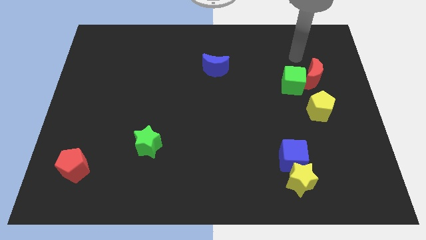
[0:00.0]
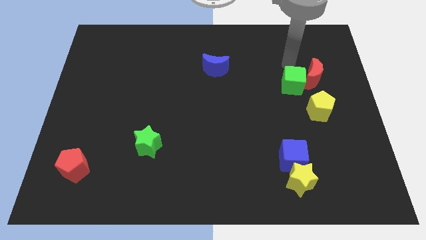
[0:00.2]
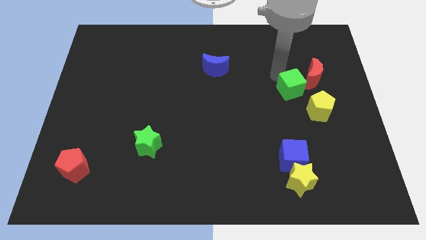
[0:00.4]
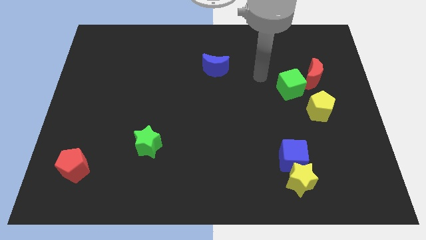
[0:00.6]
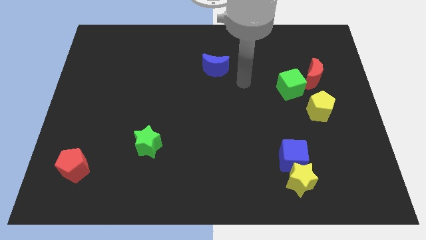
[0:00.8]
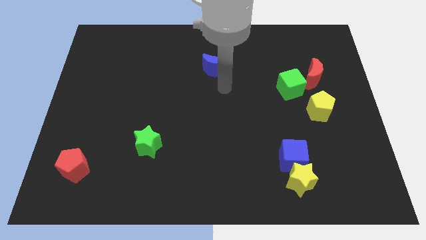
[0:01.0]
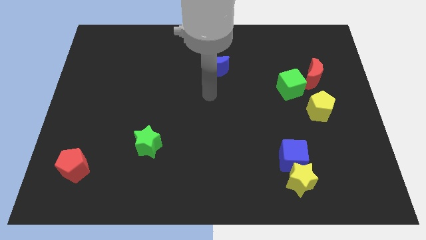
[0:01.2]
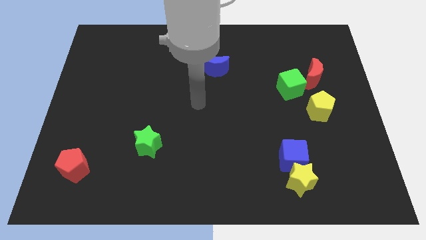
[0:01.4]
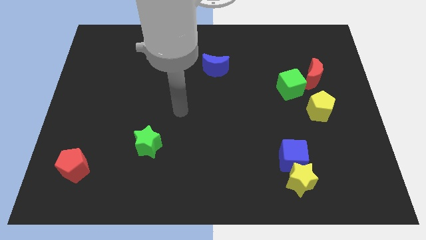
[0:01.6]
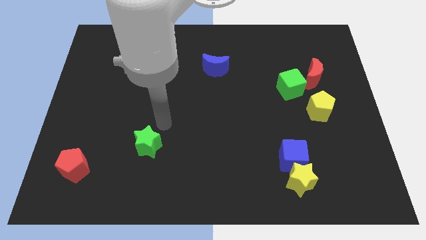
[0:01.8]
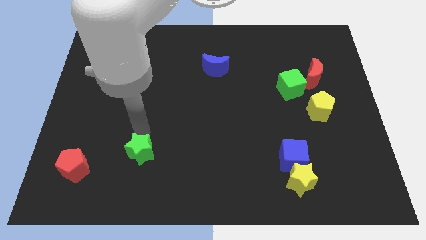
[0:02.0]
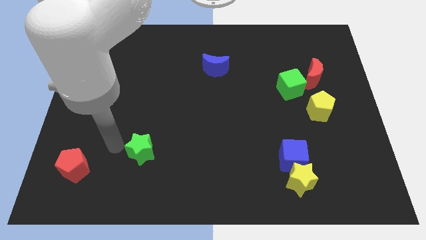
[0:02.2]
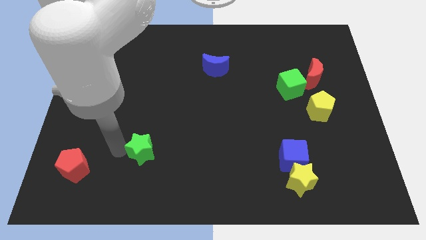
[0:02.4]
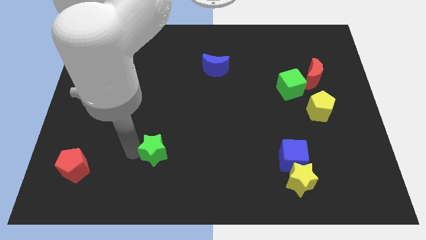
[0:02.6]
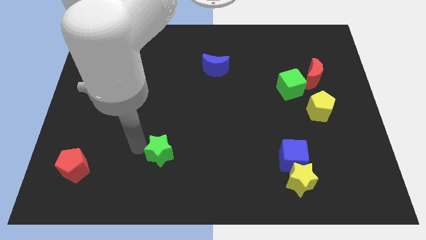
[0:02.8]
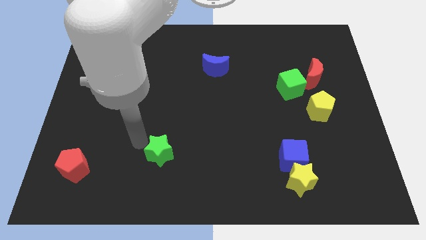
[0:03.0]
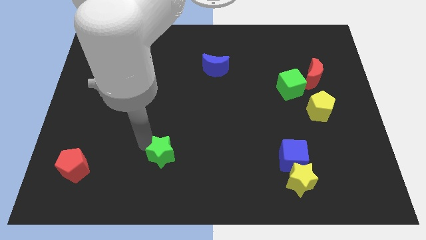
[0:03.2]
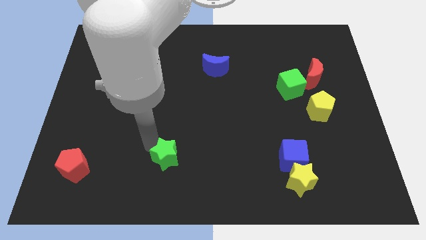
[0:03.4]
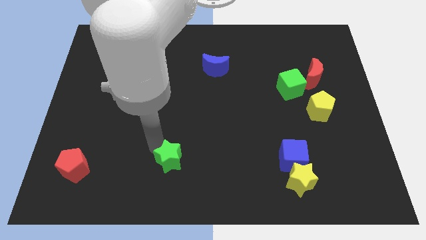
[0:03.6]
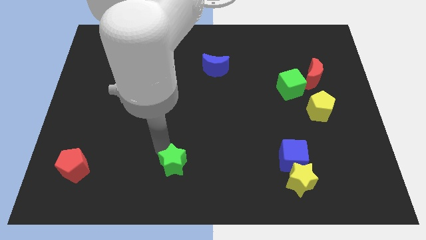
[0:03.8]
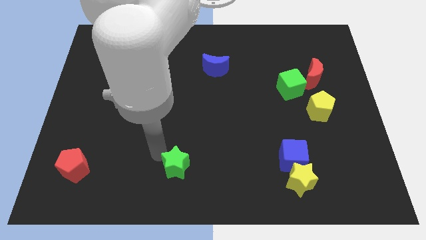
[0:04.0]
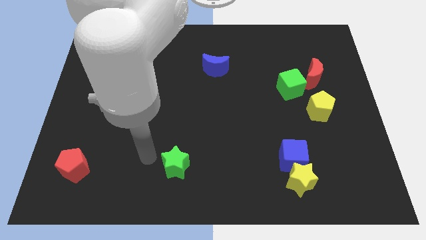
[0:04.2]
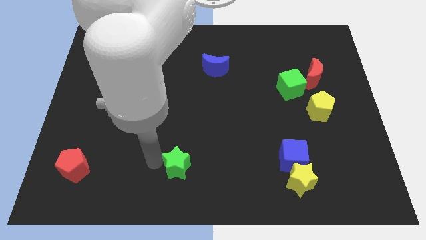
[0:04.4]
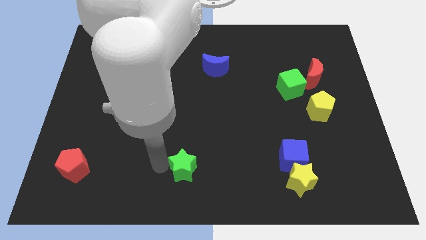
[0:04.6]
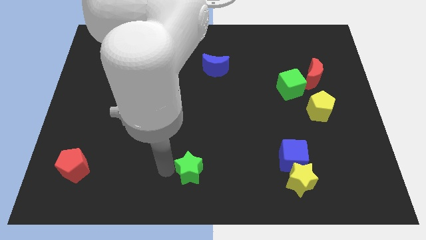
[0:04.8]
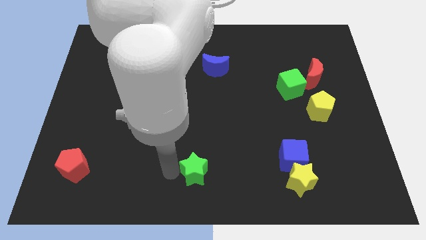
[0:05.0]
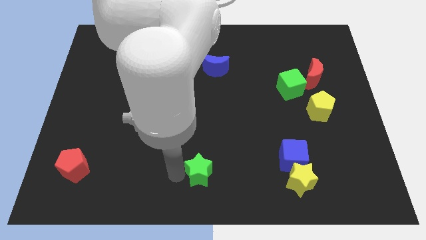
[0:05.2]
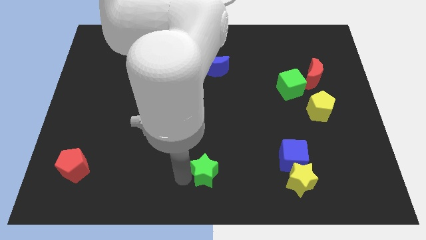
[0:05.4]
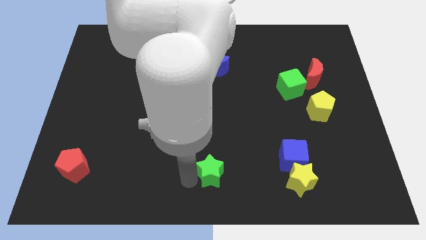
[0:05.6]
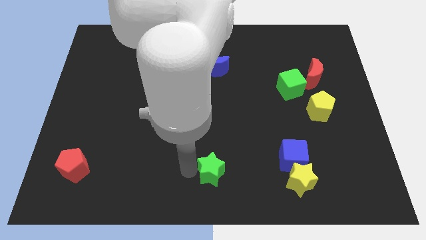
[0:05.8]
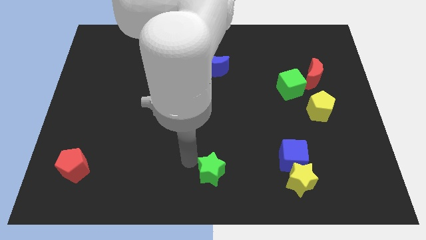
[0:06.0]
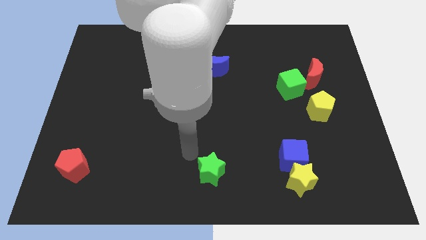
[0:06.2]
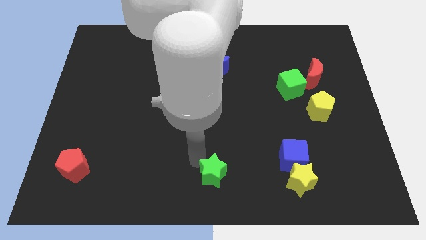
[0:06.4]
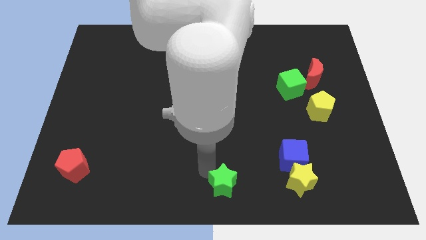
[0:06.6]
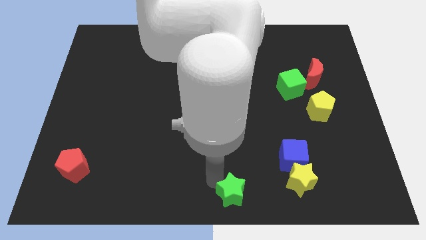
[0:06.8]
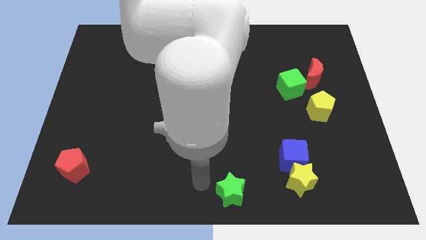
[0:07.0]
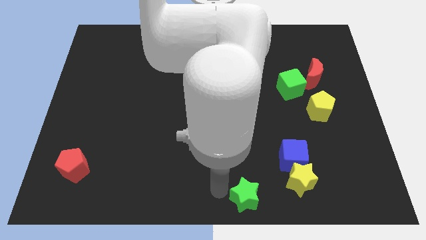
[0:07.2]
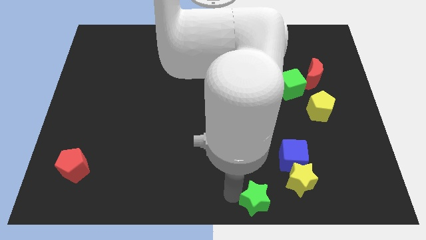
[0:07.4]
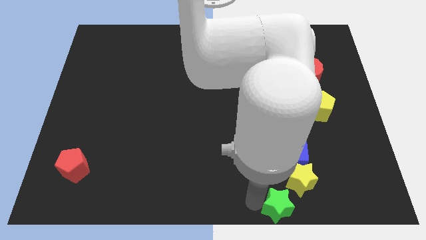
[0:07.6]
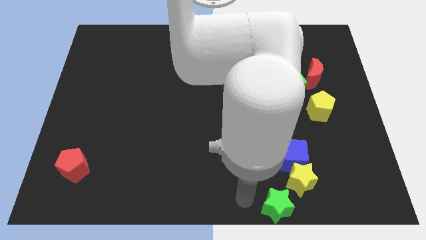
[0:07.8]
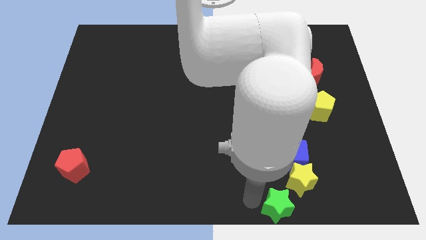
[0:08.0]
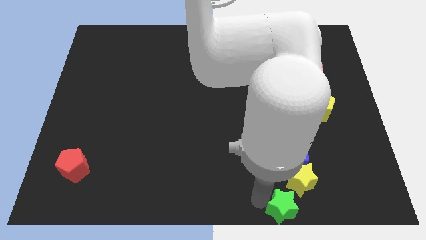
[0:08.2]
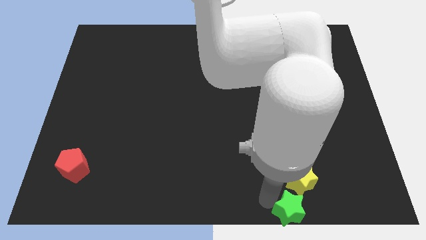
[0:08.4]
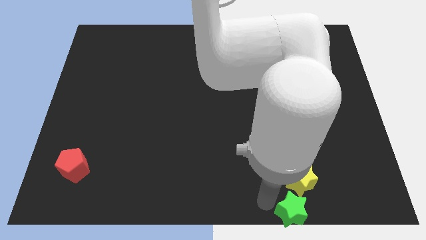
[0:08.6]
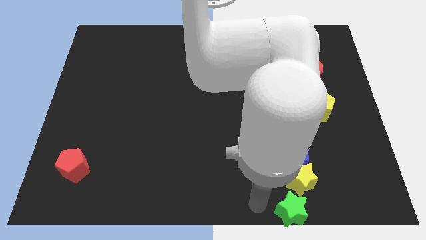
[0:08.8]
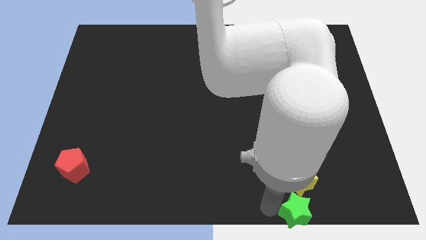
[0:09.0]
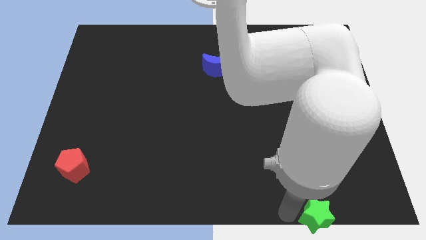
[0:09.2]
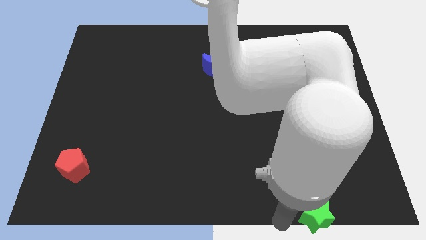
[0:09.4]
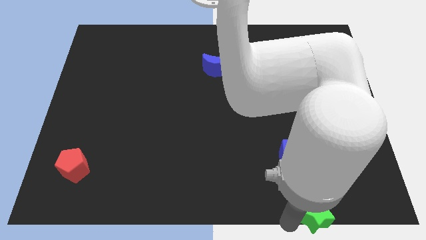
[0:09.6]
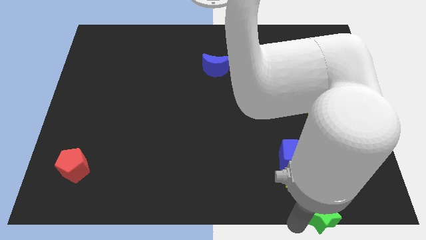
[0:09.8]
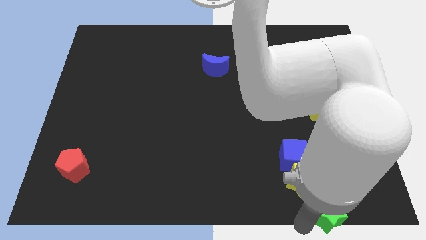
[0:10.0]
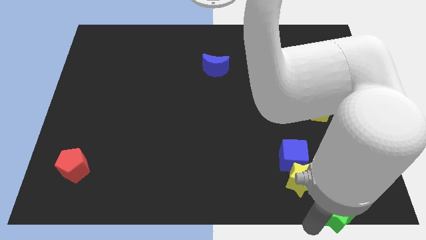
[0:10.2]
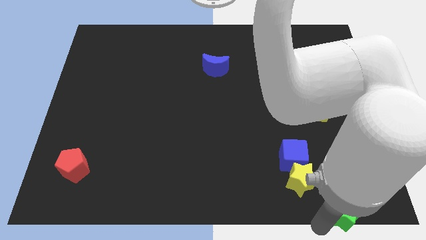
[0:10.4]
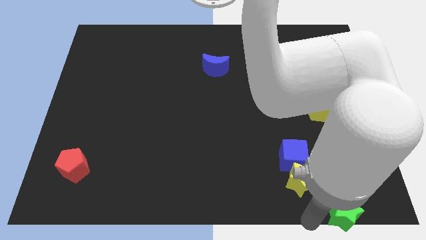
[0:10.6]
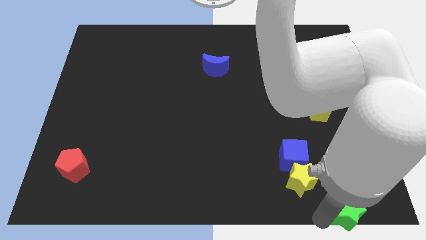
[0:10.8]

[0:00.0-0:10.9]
put the green star to the lower right corner

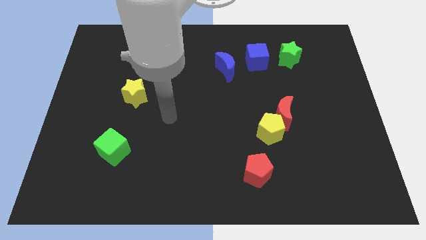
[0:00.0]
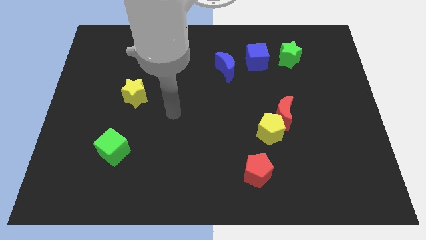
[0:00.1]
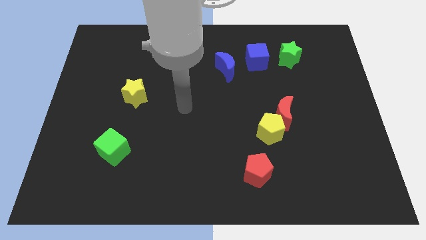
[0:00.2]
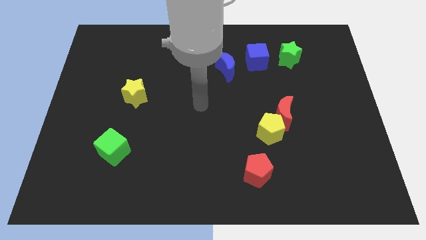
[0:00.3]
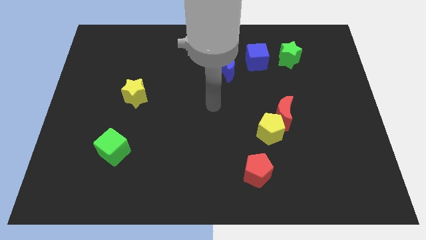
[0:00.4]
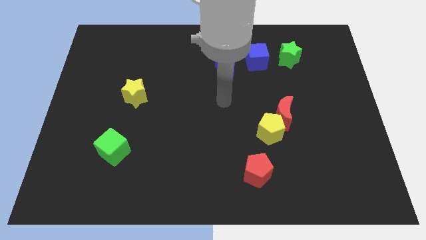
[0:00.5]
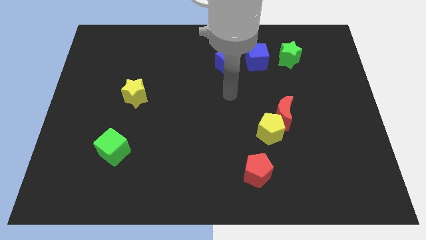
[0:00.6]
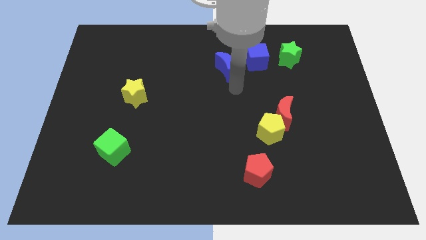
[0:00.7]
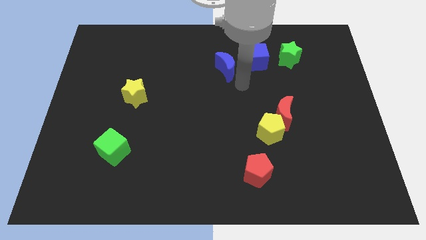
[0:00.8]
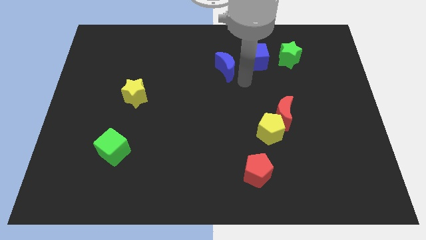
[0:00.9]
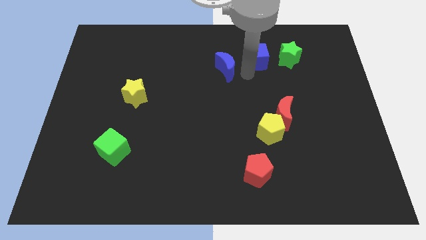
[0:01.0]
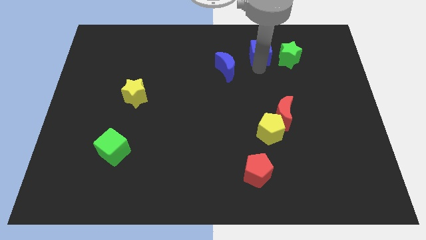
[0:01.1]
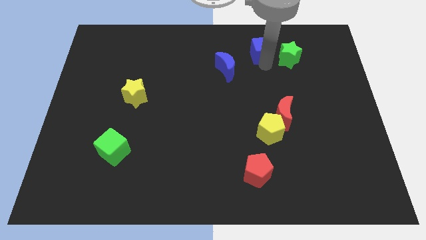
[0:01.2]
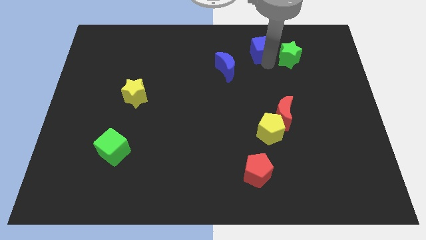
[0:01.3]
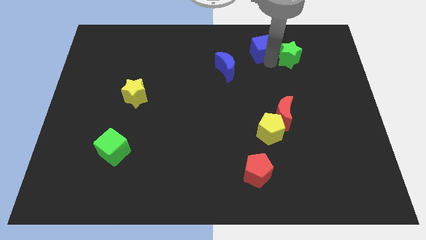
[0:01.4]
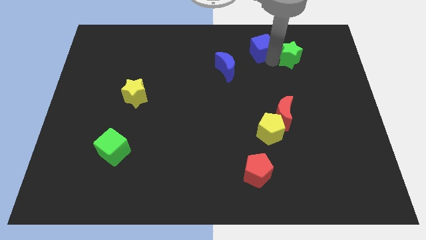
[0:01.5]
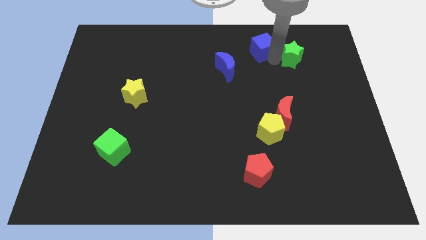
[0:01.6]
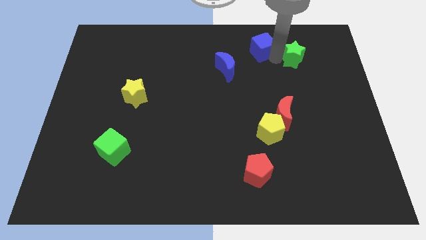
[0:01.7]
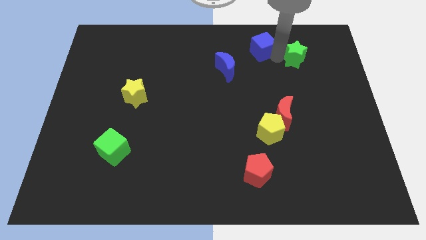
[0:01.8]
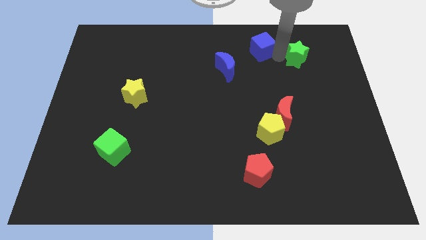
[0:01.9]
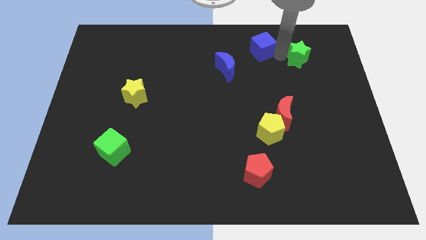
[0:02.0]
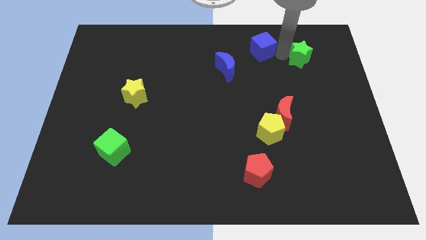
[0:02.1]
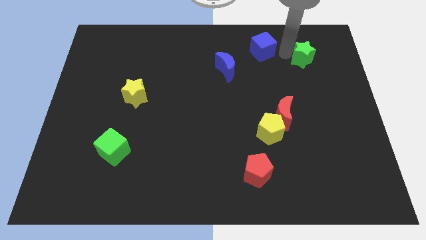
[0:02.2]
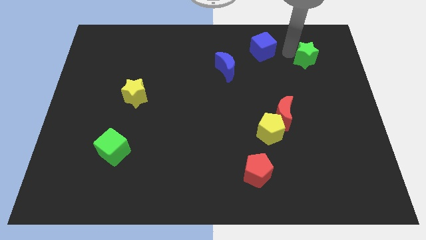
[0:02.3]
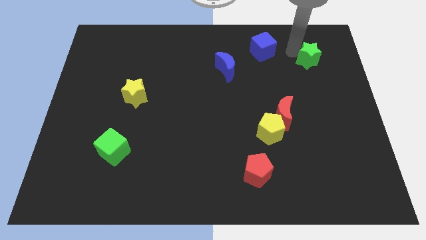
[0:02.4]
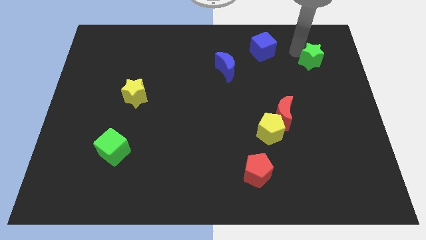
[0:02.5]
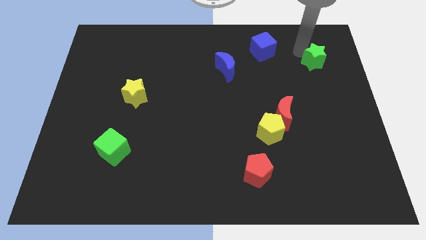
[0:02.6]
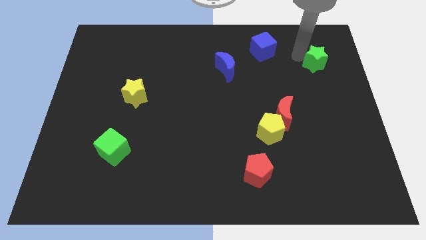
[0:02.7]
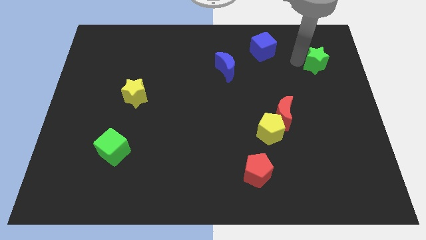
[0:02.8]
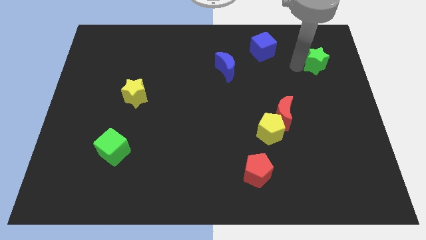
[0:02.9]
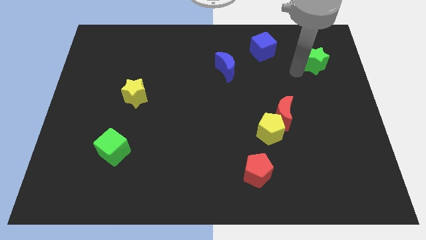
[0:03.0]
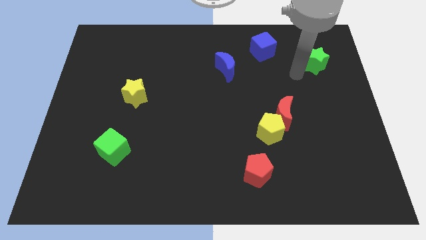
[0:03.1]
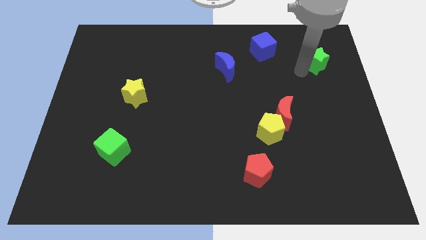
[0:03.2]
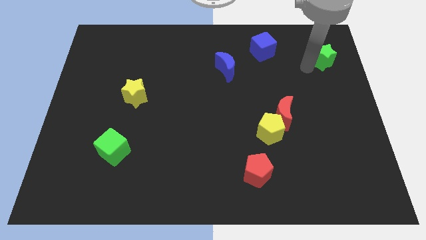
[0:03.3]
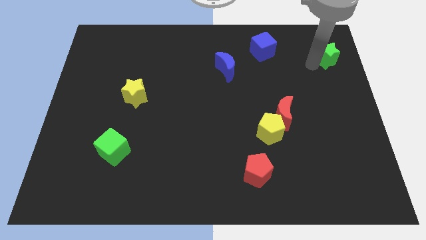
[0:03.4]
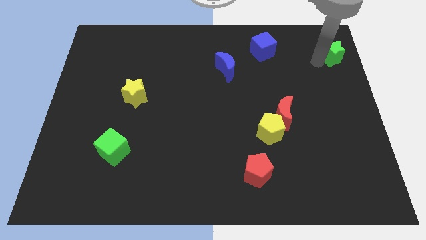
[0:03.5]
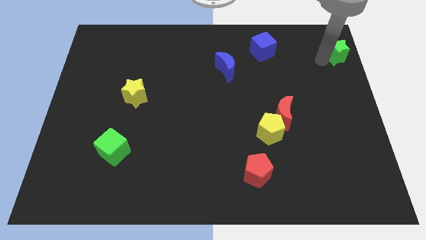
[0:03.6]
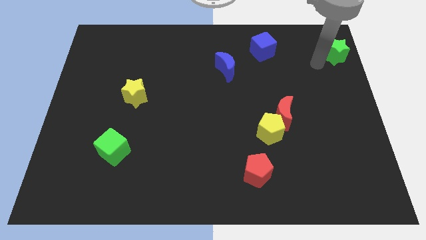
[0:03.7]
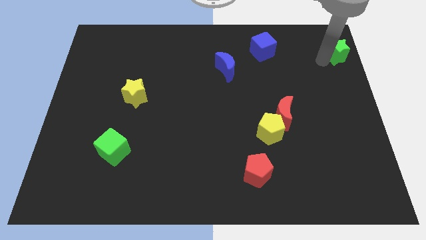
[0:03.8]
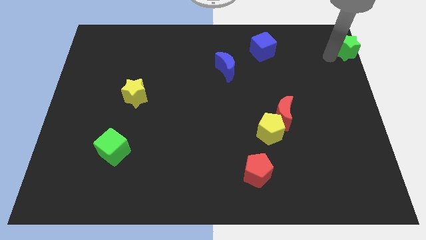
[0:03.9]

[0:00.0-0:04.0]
push the green star to the top right
